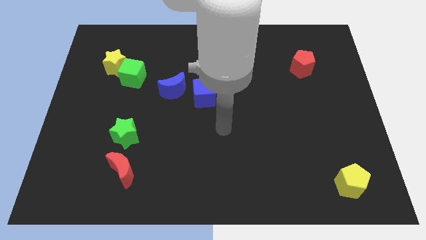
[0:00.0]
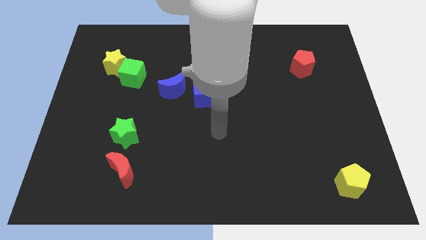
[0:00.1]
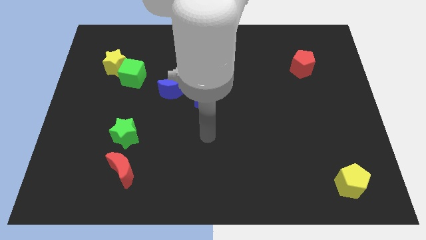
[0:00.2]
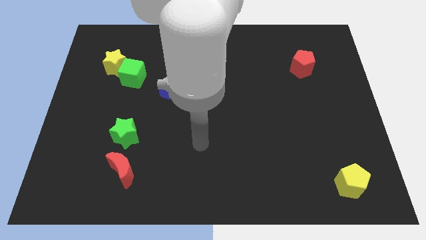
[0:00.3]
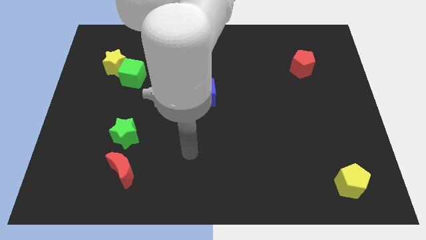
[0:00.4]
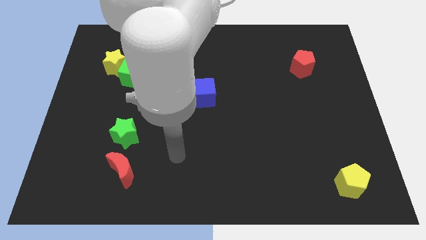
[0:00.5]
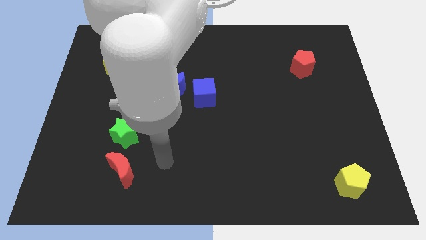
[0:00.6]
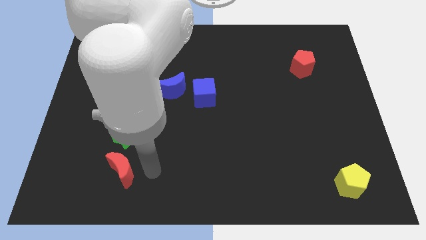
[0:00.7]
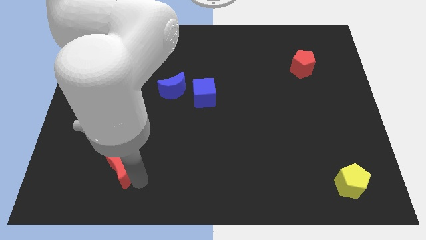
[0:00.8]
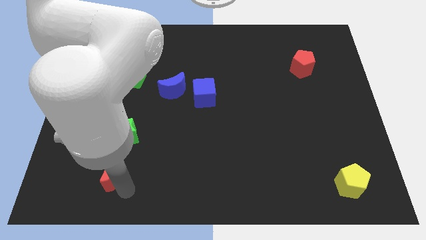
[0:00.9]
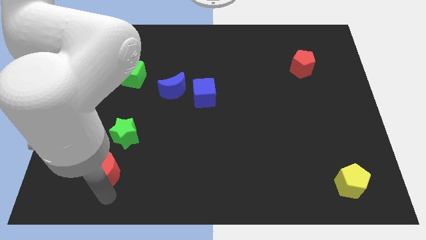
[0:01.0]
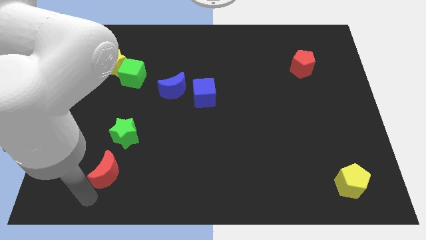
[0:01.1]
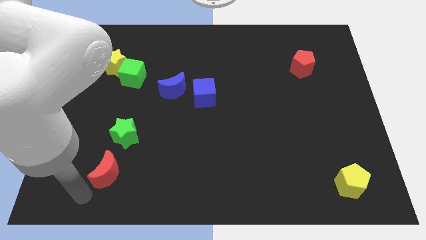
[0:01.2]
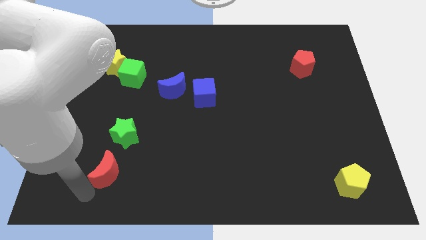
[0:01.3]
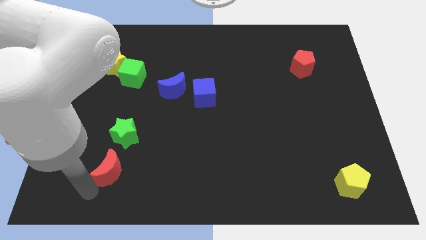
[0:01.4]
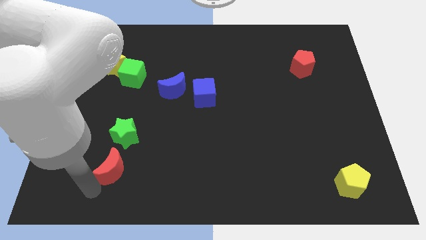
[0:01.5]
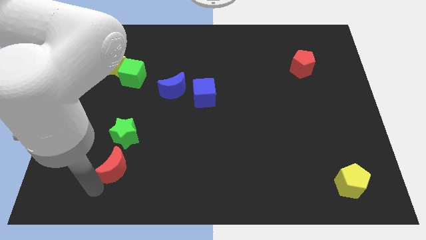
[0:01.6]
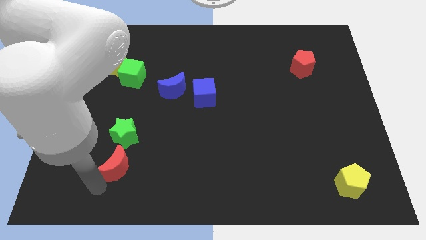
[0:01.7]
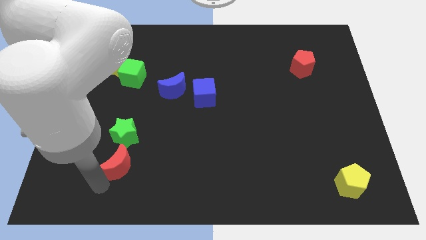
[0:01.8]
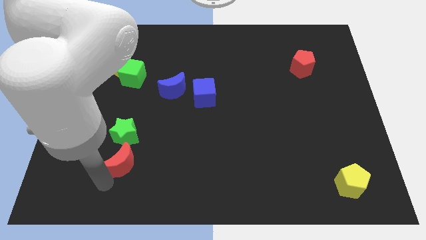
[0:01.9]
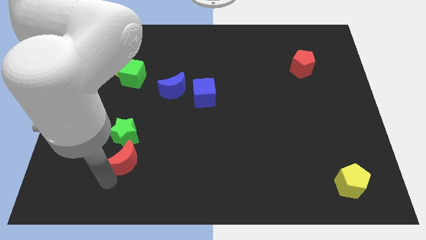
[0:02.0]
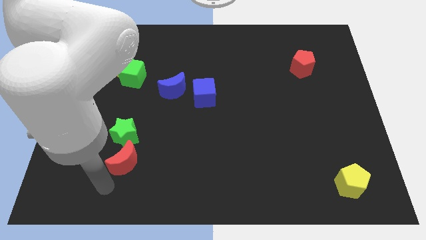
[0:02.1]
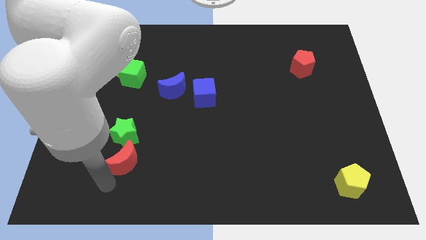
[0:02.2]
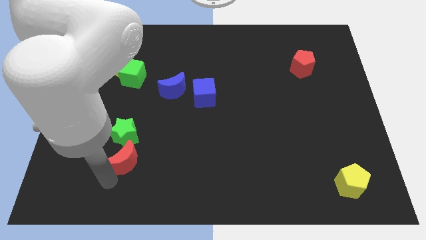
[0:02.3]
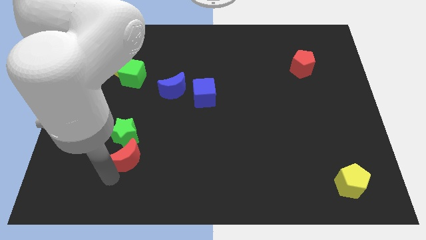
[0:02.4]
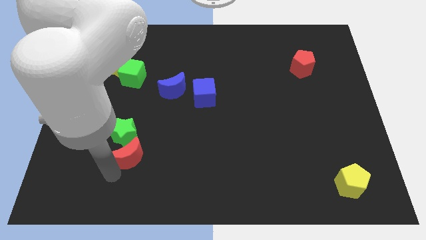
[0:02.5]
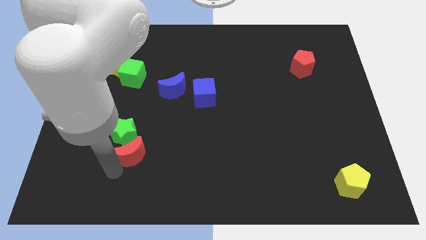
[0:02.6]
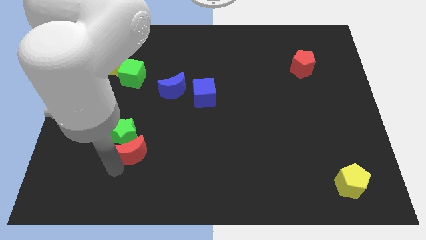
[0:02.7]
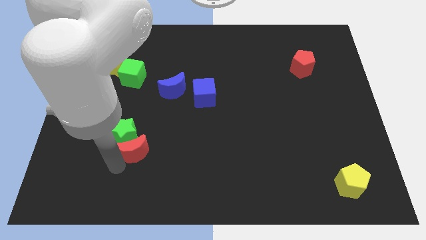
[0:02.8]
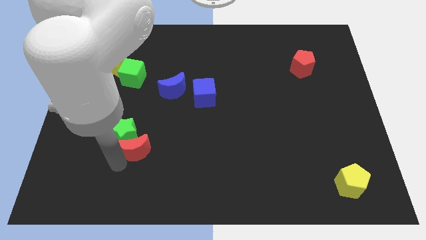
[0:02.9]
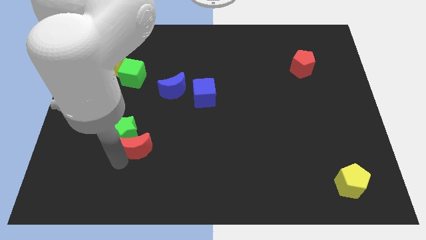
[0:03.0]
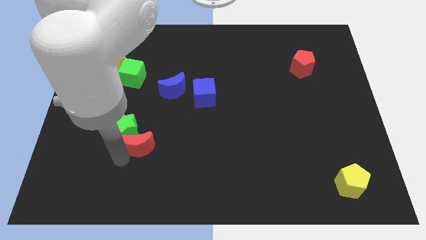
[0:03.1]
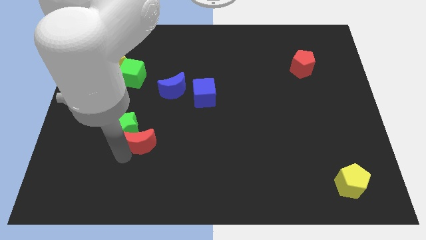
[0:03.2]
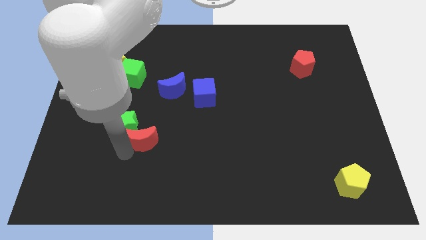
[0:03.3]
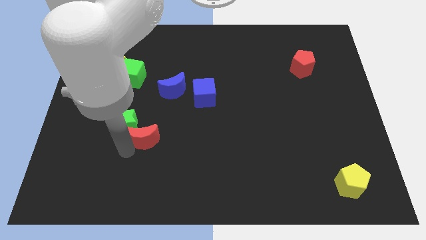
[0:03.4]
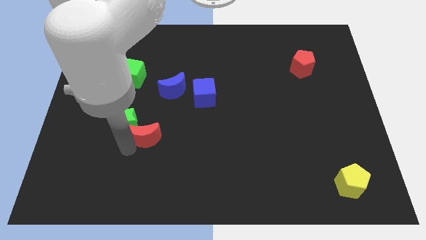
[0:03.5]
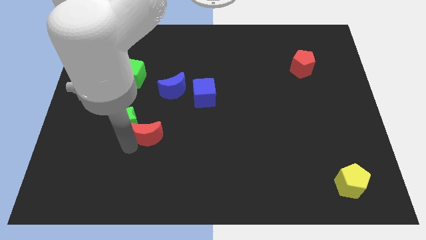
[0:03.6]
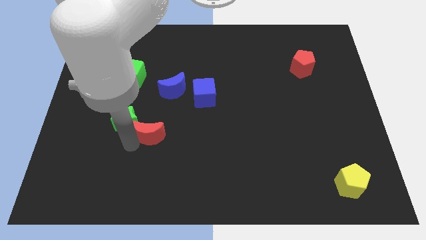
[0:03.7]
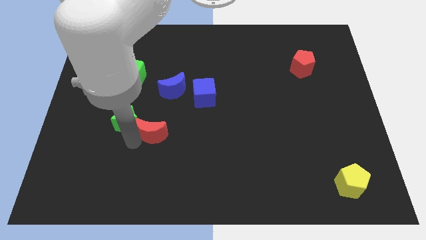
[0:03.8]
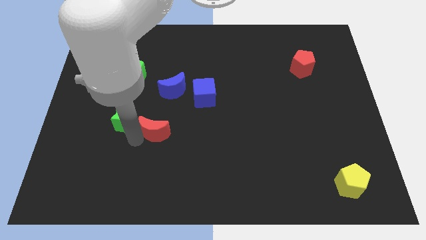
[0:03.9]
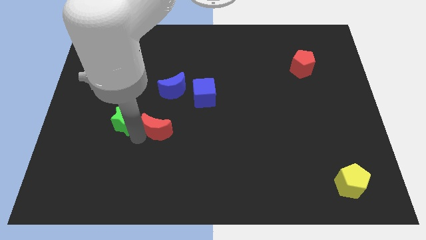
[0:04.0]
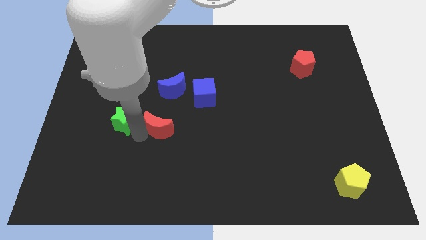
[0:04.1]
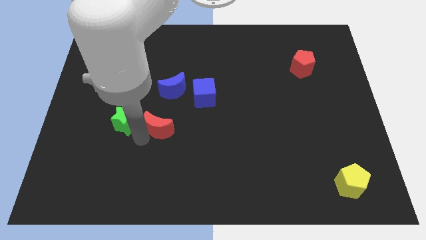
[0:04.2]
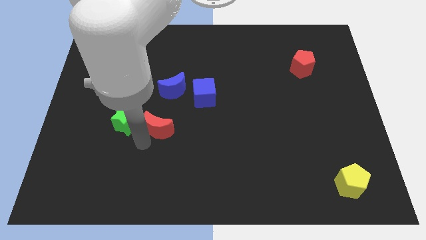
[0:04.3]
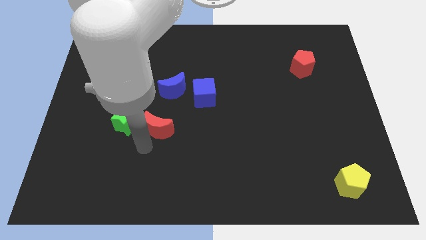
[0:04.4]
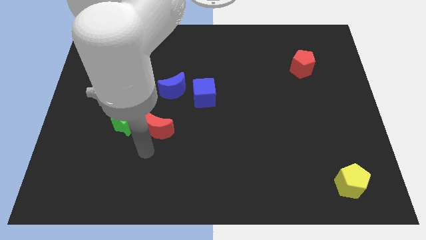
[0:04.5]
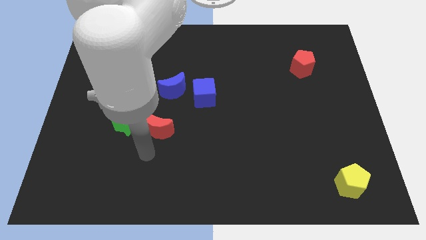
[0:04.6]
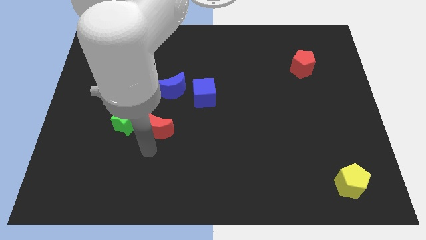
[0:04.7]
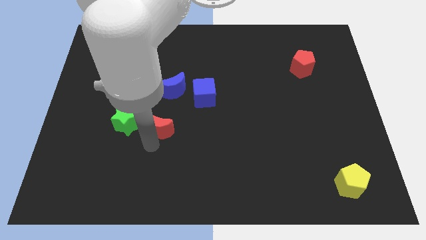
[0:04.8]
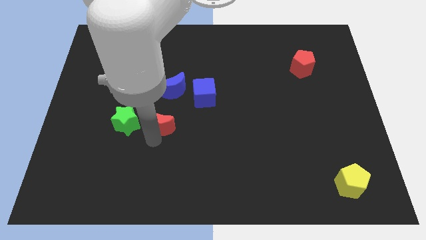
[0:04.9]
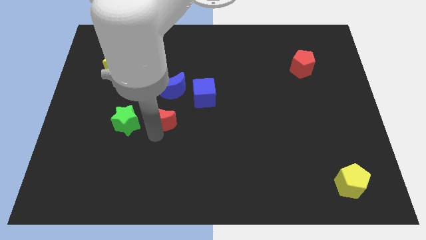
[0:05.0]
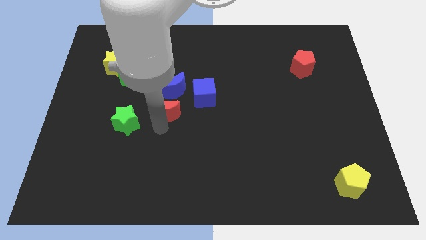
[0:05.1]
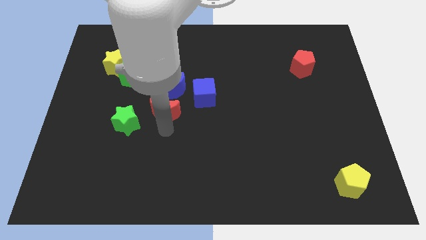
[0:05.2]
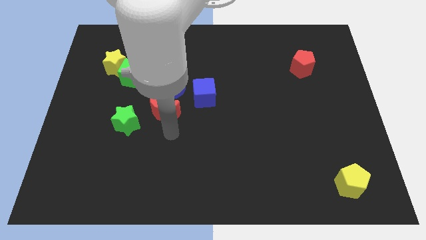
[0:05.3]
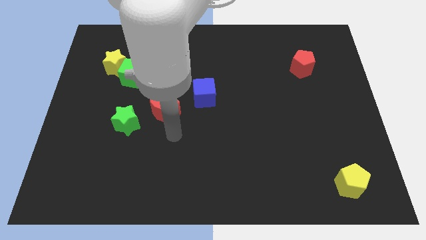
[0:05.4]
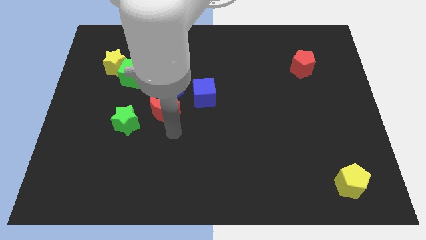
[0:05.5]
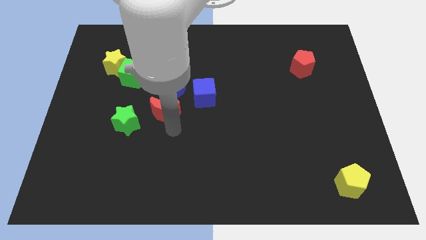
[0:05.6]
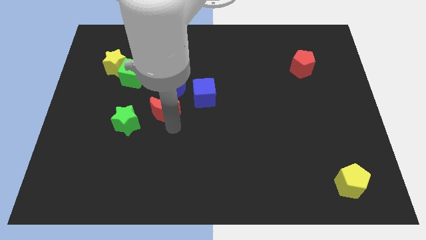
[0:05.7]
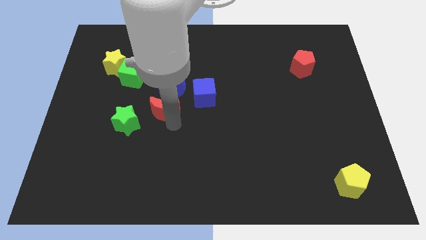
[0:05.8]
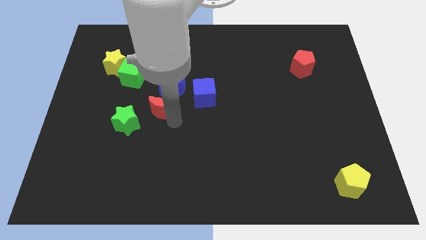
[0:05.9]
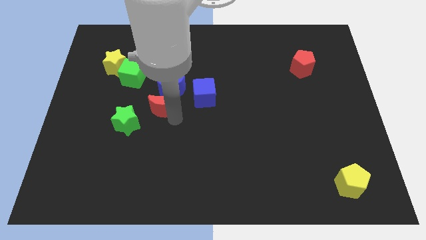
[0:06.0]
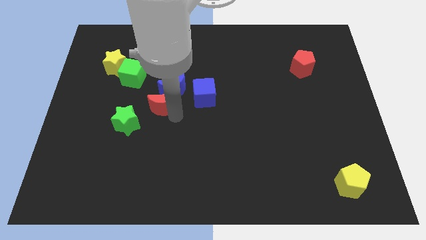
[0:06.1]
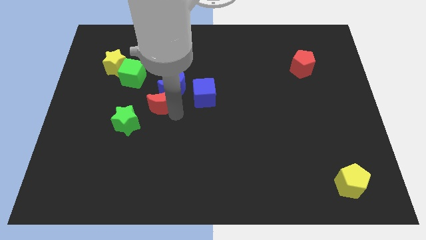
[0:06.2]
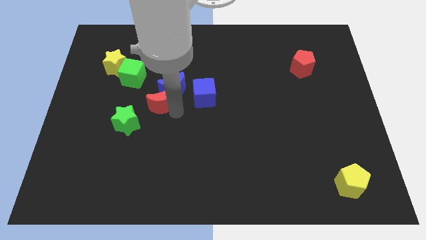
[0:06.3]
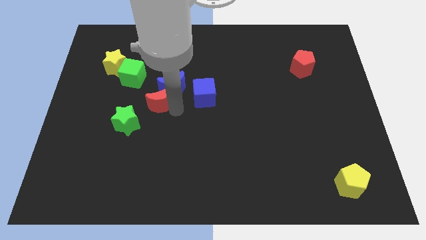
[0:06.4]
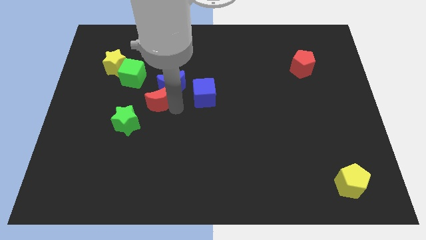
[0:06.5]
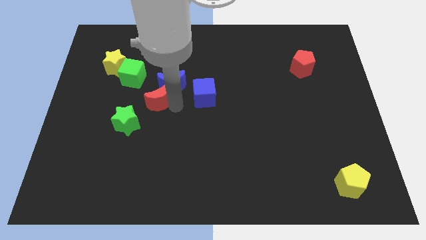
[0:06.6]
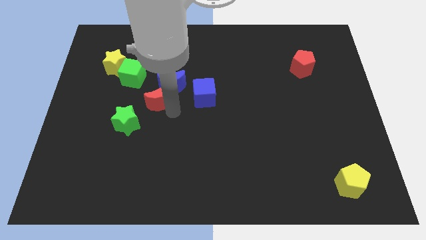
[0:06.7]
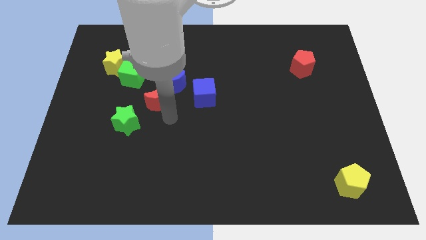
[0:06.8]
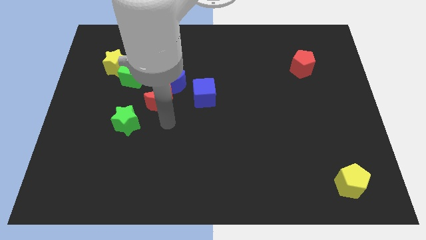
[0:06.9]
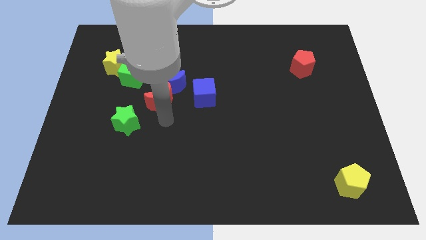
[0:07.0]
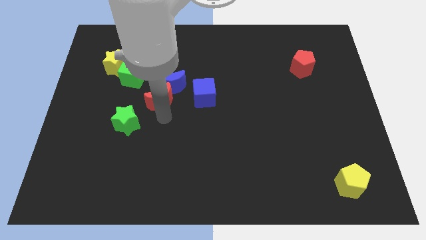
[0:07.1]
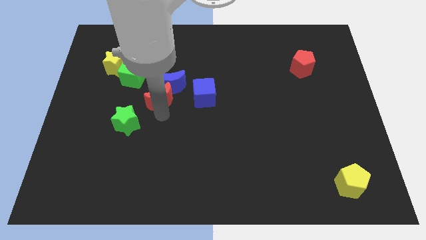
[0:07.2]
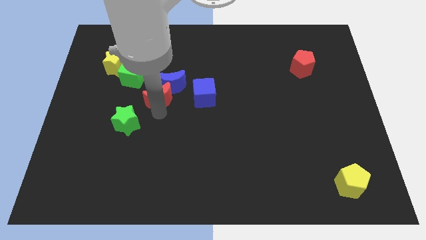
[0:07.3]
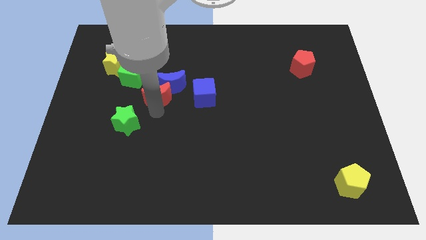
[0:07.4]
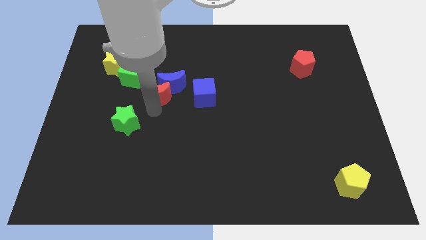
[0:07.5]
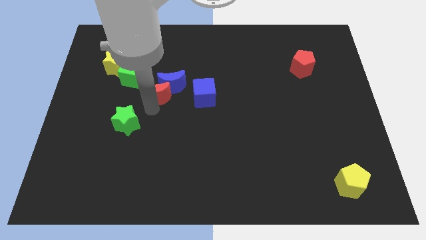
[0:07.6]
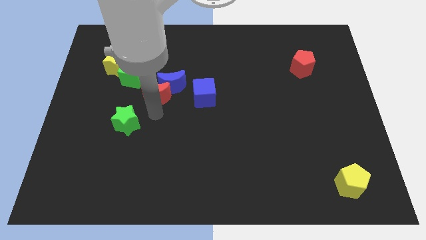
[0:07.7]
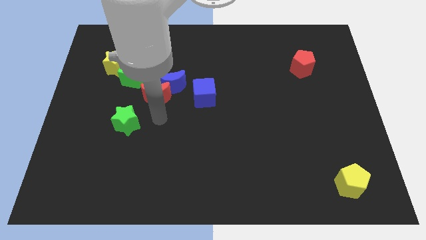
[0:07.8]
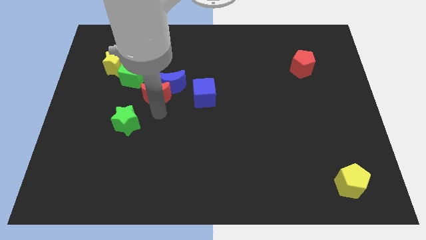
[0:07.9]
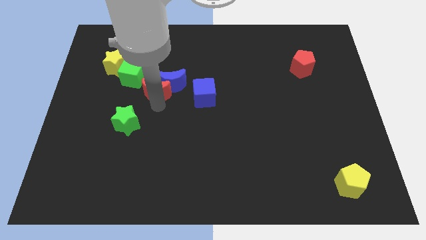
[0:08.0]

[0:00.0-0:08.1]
slide the red moon upwards
